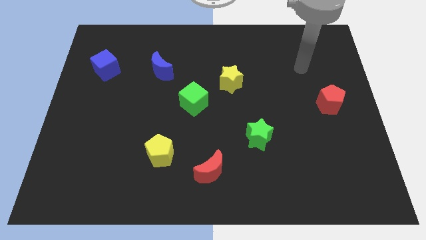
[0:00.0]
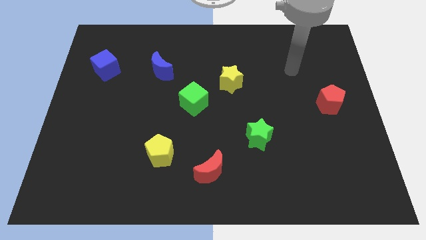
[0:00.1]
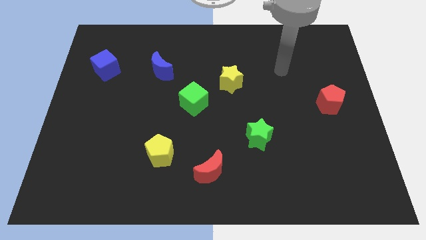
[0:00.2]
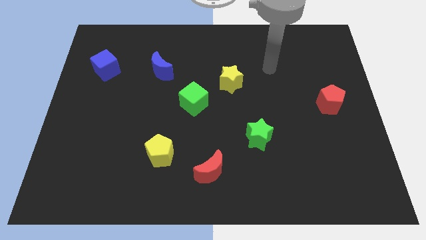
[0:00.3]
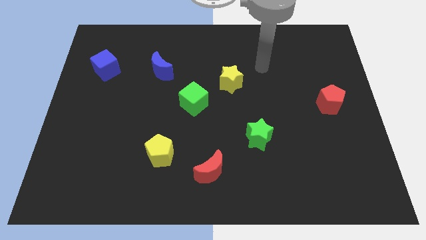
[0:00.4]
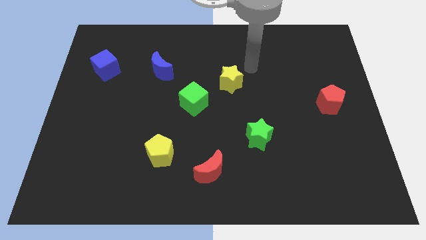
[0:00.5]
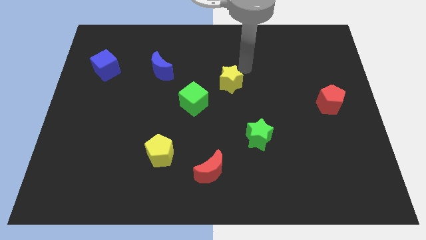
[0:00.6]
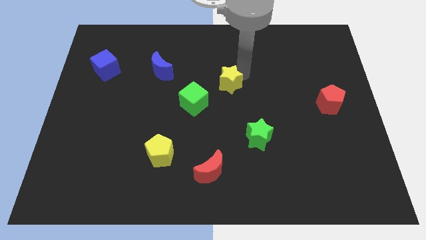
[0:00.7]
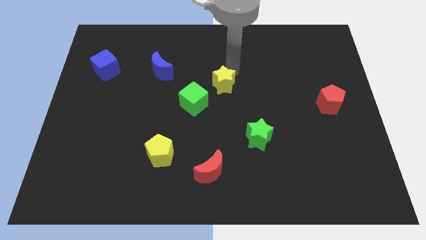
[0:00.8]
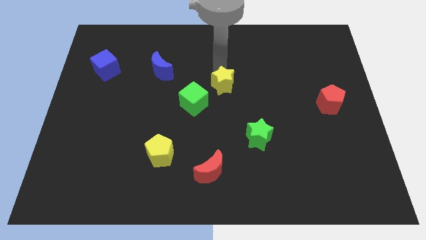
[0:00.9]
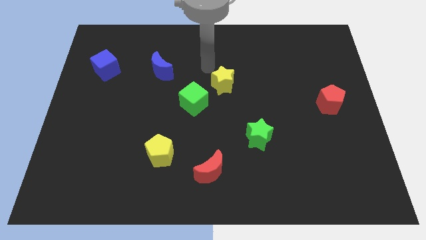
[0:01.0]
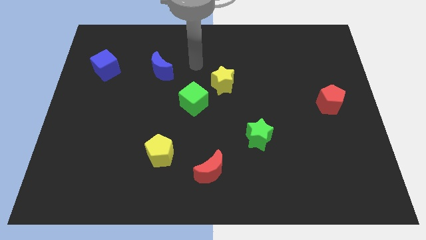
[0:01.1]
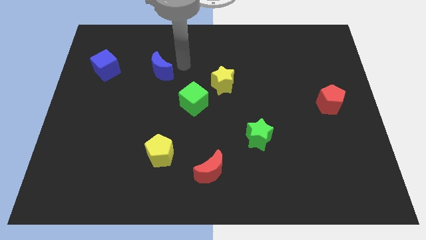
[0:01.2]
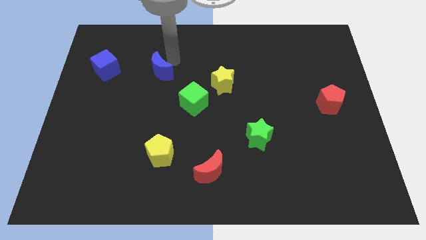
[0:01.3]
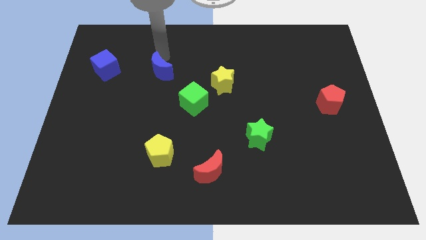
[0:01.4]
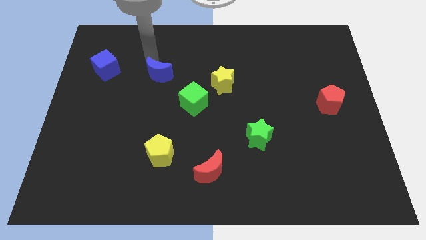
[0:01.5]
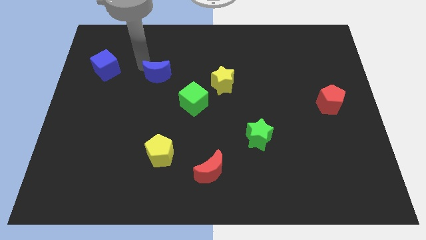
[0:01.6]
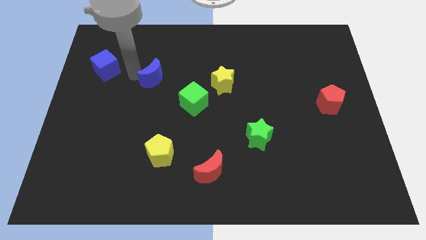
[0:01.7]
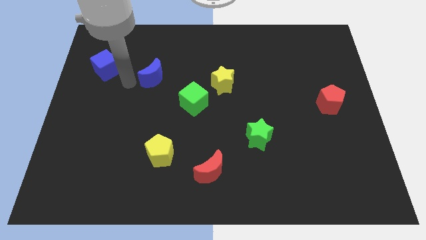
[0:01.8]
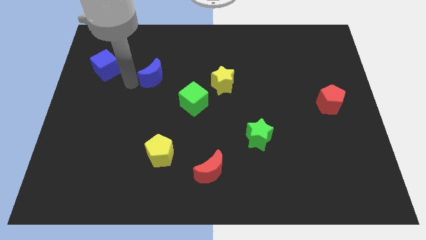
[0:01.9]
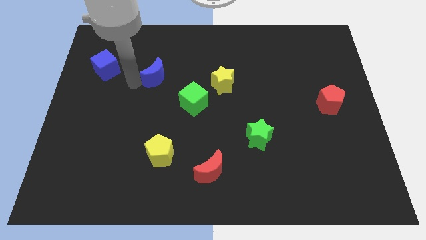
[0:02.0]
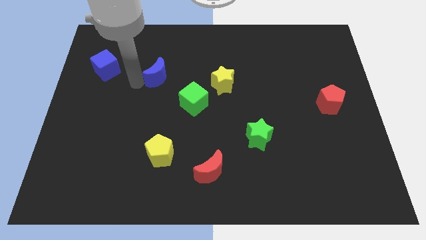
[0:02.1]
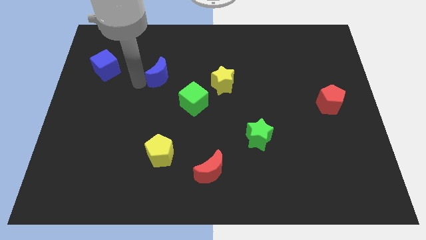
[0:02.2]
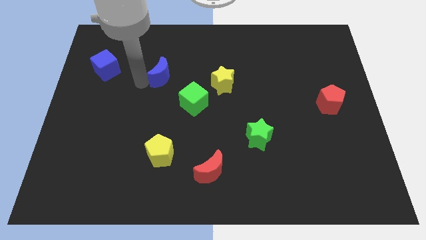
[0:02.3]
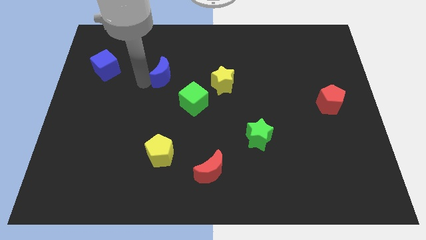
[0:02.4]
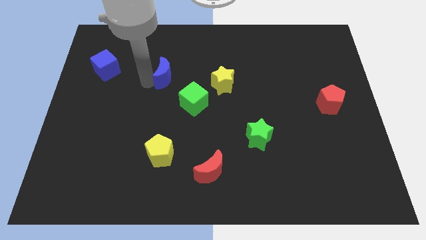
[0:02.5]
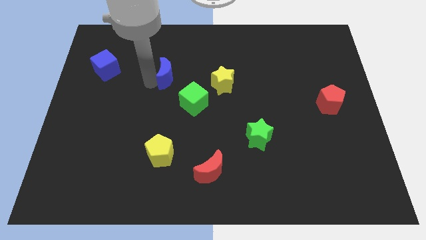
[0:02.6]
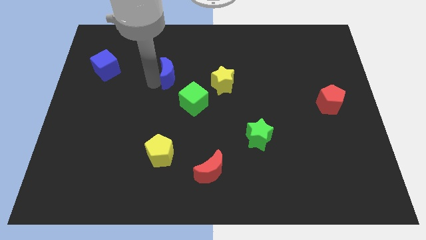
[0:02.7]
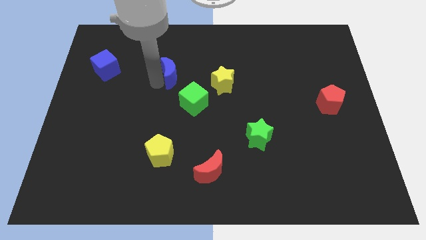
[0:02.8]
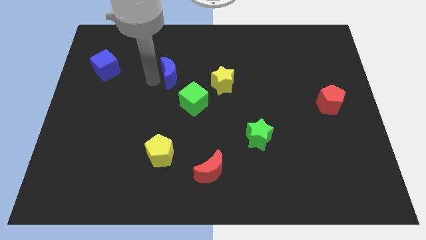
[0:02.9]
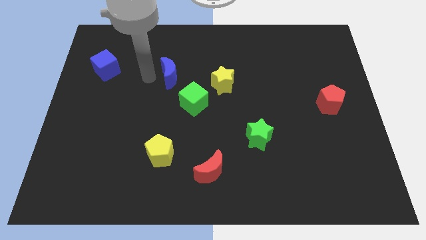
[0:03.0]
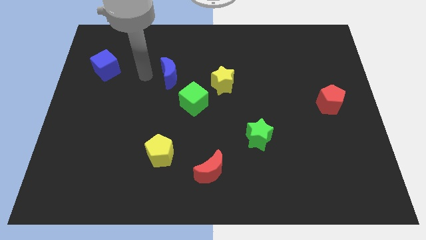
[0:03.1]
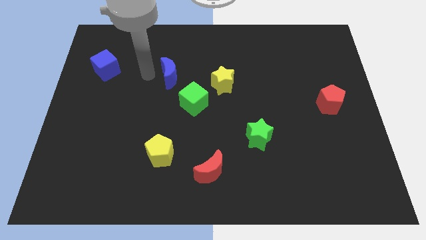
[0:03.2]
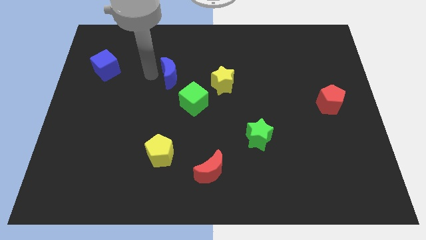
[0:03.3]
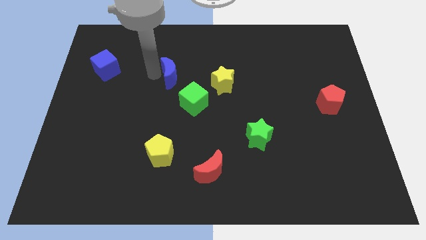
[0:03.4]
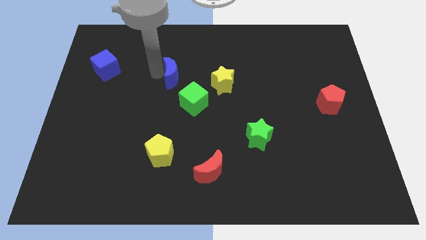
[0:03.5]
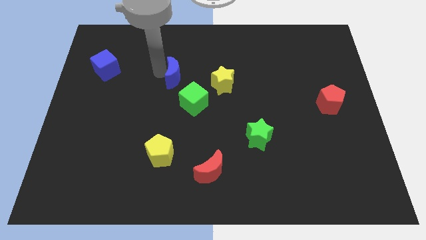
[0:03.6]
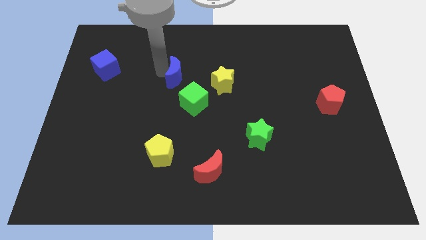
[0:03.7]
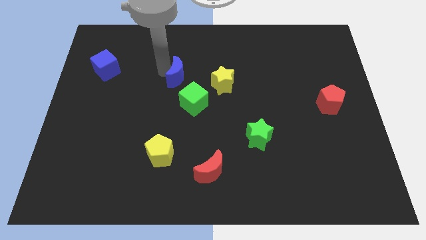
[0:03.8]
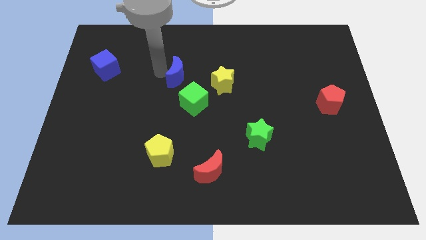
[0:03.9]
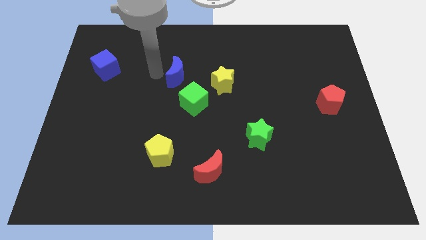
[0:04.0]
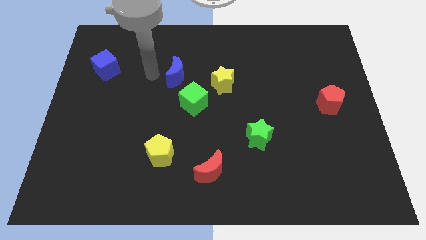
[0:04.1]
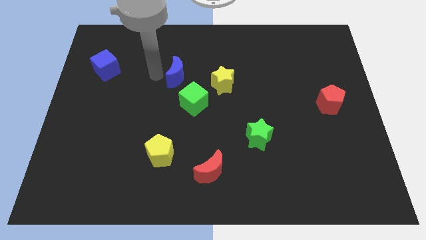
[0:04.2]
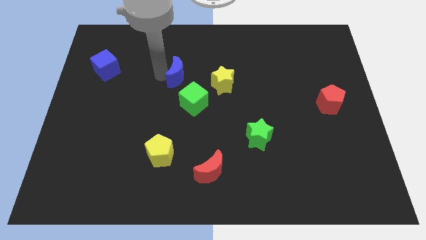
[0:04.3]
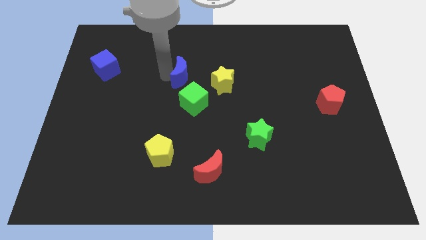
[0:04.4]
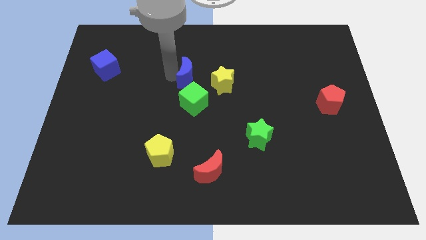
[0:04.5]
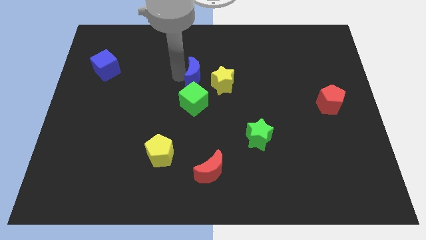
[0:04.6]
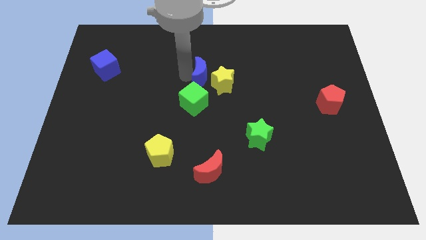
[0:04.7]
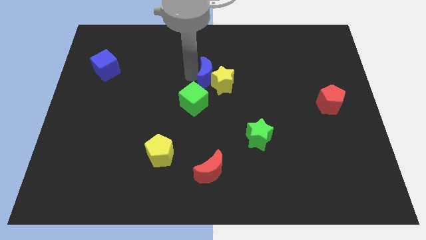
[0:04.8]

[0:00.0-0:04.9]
put the blue moon next to the yellow star

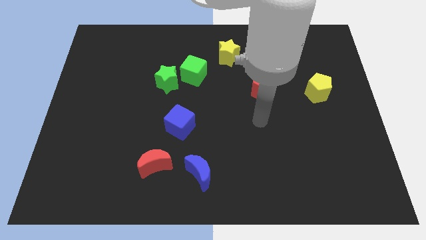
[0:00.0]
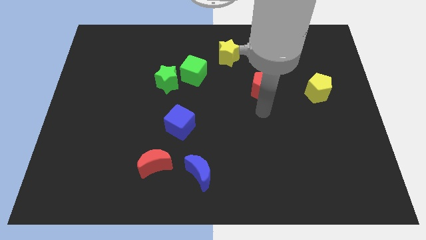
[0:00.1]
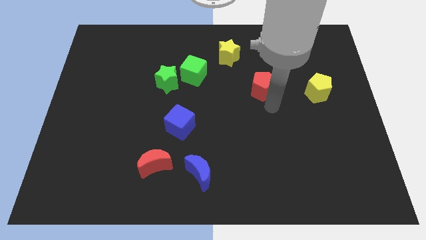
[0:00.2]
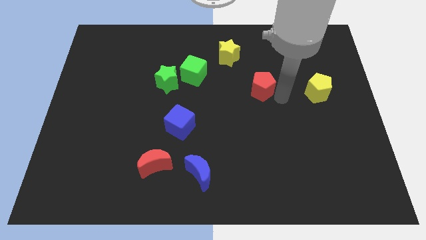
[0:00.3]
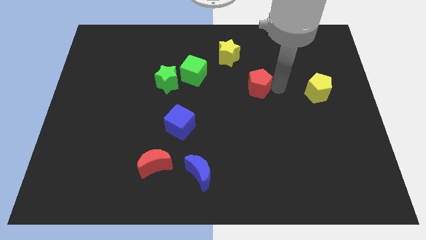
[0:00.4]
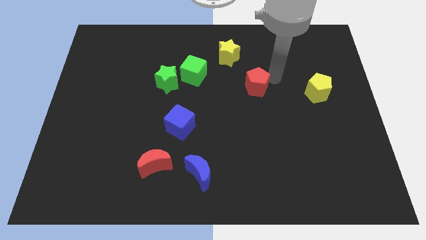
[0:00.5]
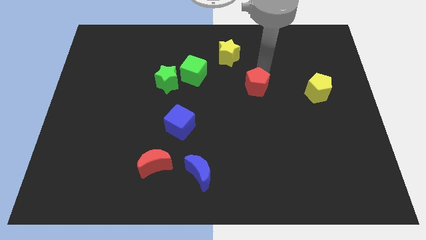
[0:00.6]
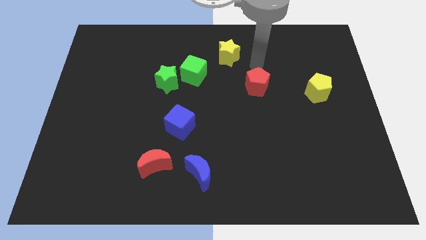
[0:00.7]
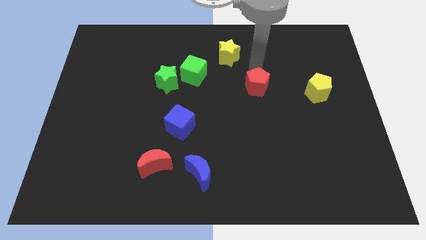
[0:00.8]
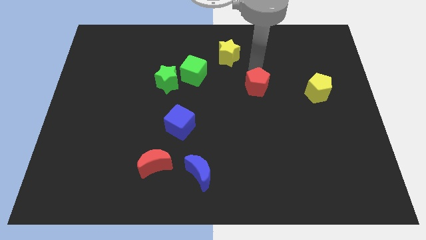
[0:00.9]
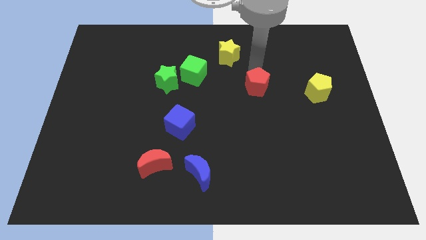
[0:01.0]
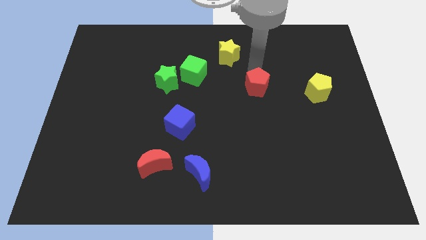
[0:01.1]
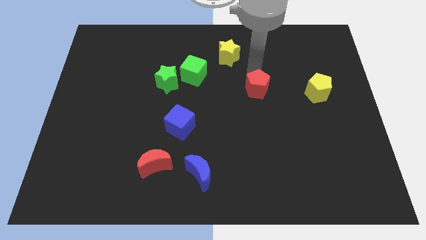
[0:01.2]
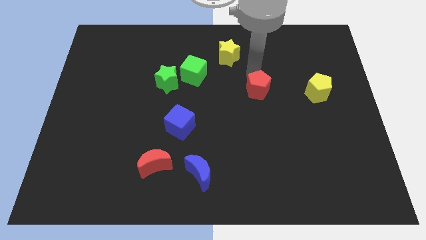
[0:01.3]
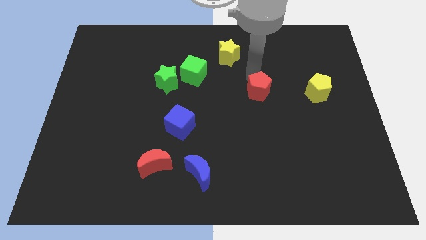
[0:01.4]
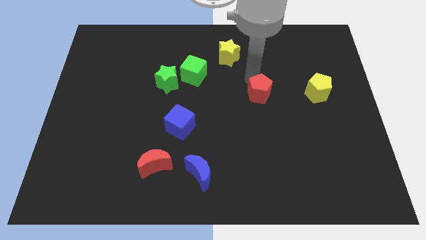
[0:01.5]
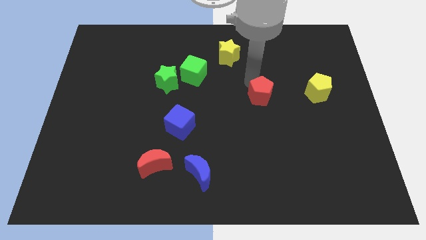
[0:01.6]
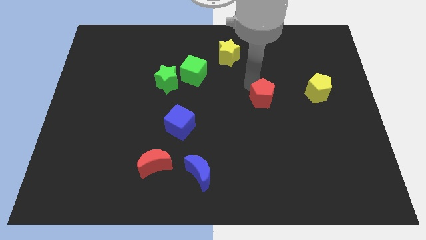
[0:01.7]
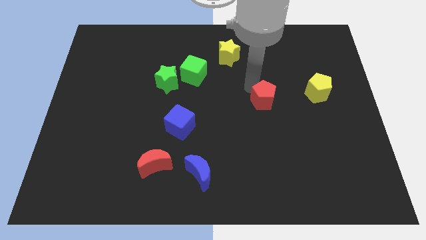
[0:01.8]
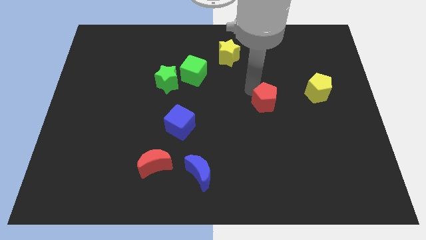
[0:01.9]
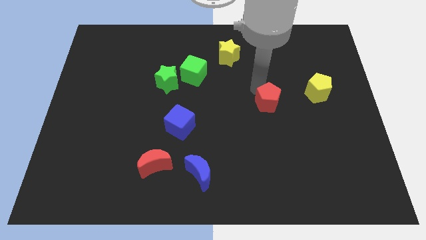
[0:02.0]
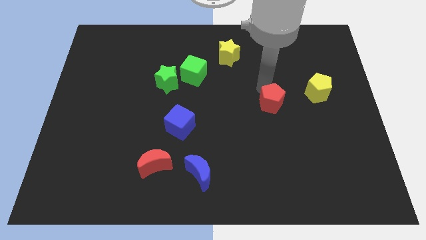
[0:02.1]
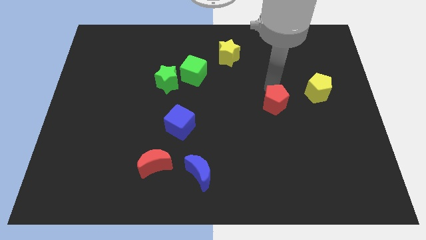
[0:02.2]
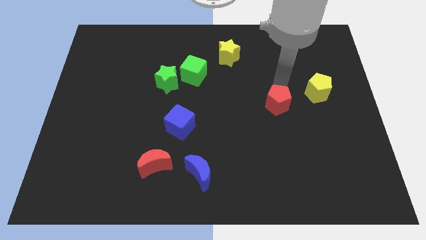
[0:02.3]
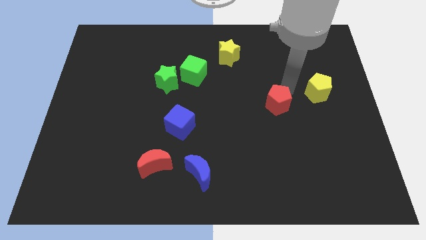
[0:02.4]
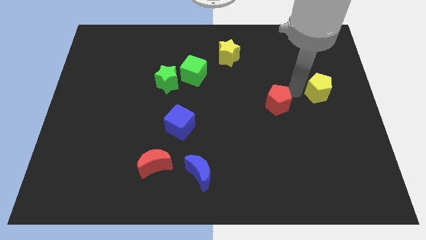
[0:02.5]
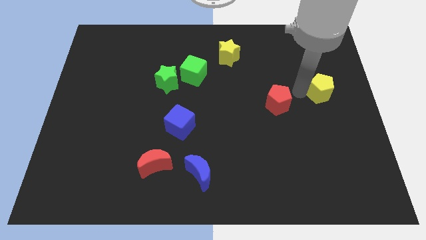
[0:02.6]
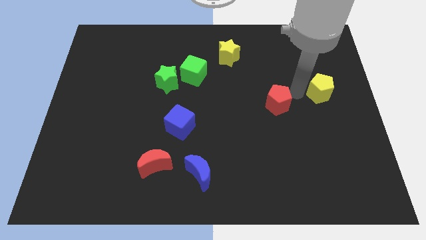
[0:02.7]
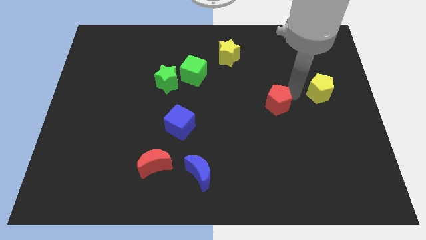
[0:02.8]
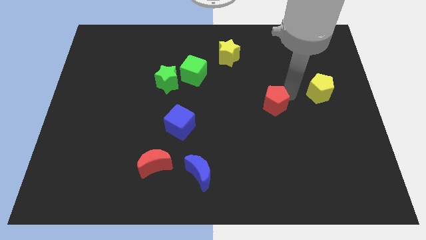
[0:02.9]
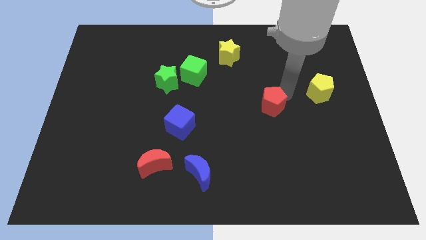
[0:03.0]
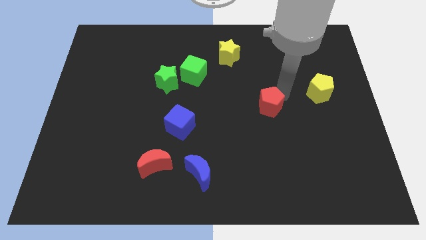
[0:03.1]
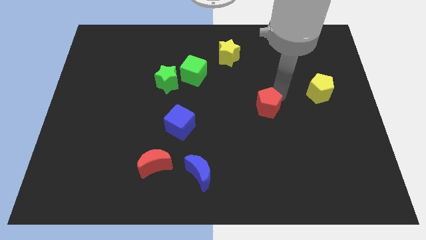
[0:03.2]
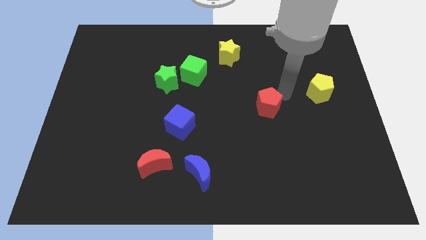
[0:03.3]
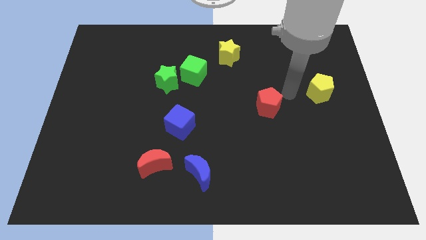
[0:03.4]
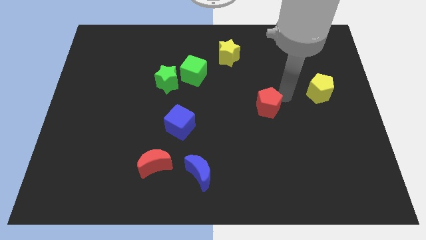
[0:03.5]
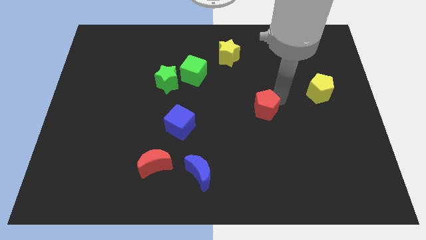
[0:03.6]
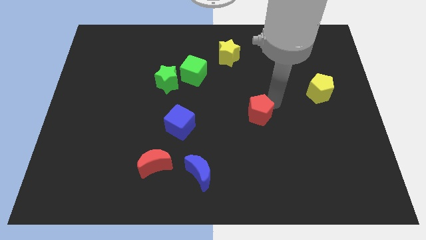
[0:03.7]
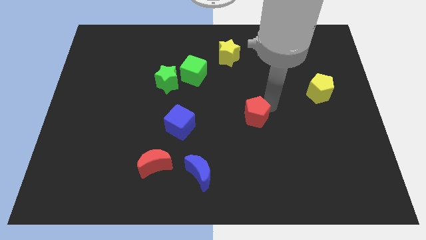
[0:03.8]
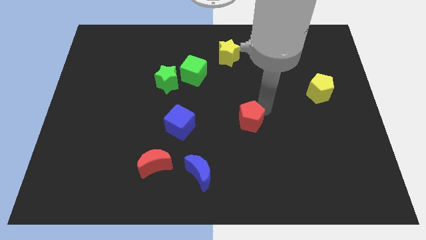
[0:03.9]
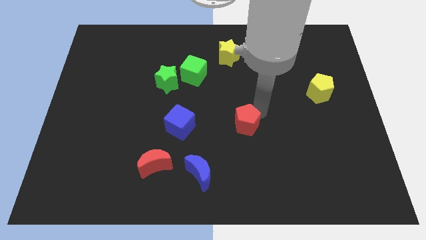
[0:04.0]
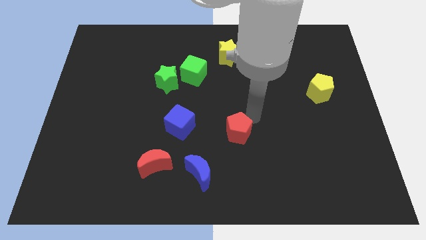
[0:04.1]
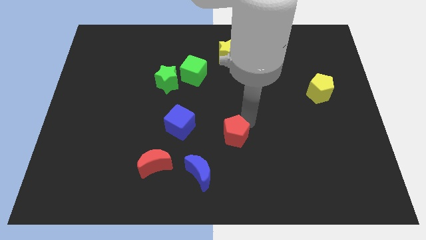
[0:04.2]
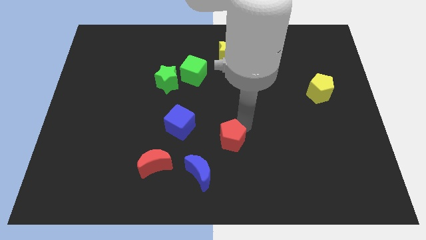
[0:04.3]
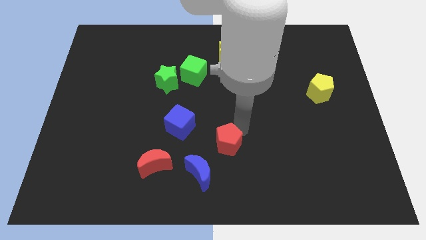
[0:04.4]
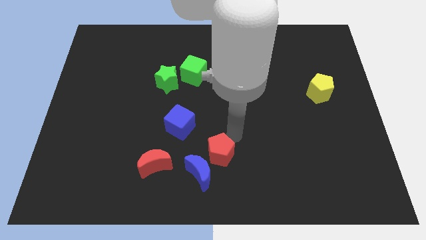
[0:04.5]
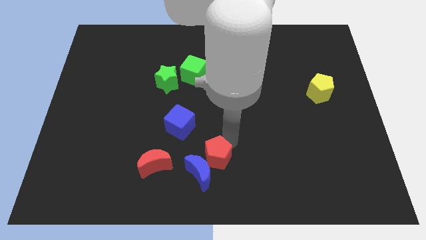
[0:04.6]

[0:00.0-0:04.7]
push the red pentagon to the blue moon
